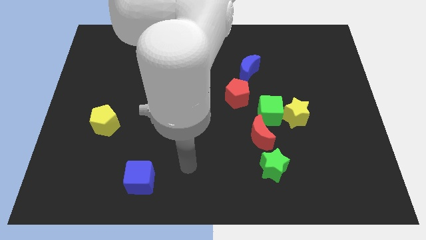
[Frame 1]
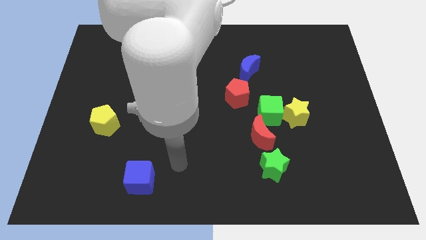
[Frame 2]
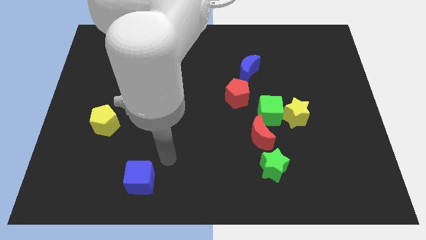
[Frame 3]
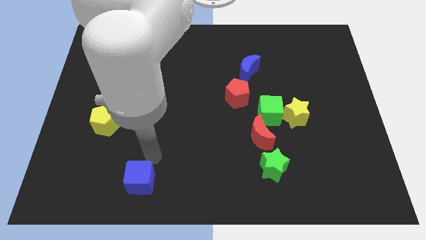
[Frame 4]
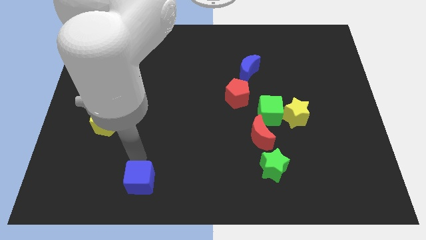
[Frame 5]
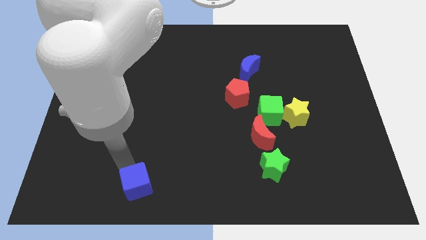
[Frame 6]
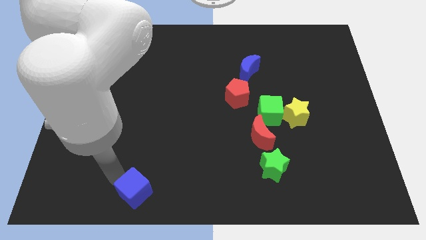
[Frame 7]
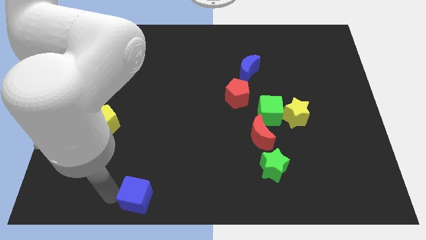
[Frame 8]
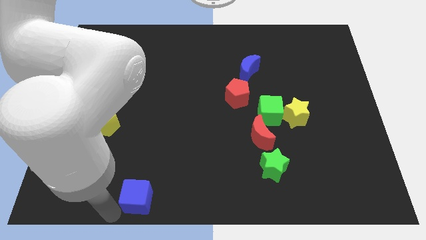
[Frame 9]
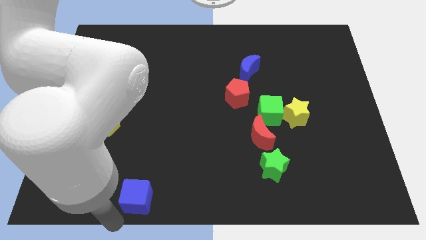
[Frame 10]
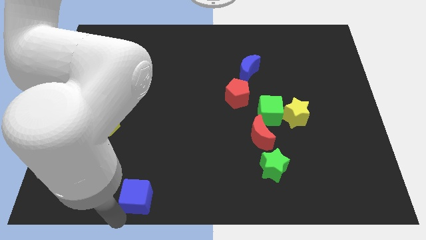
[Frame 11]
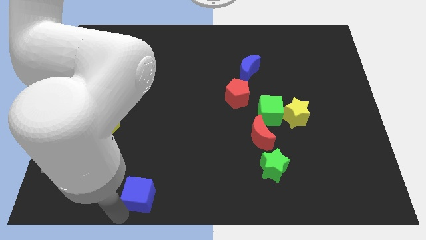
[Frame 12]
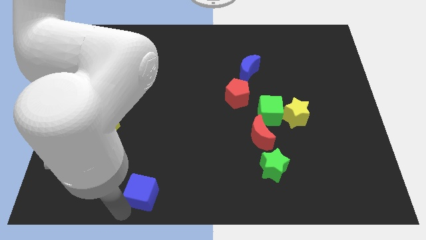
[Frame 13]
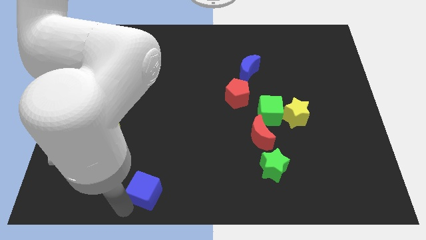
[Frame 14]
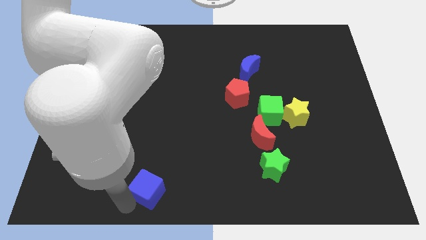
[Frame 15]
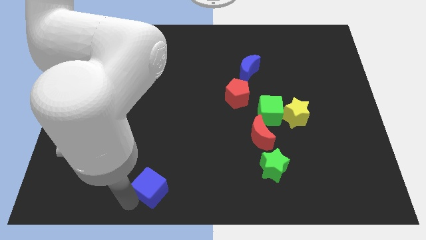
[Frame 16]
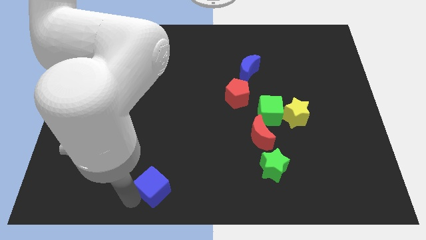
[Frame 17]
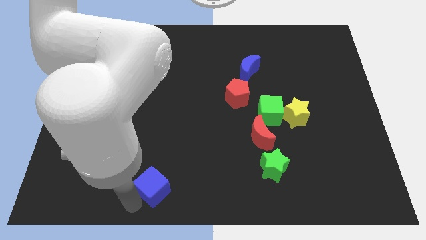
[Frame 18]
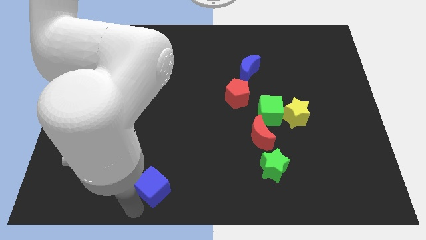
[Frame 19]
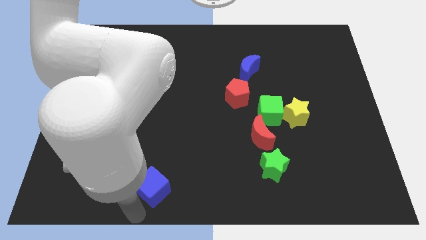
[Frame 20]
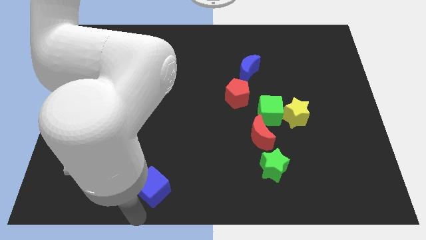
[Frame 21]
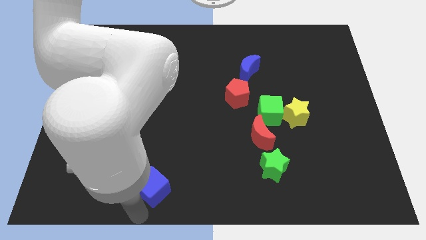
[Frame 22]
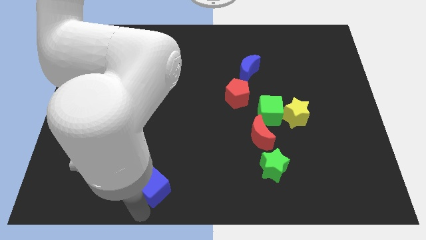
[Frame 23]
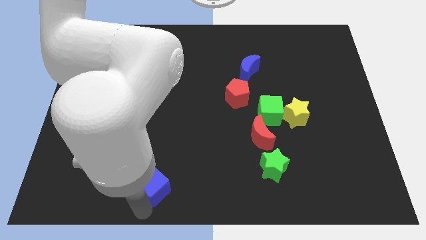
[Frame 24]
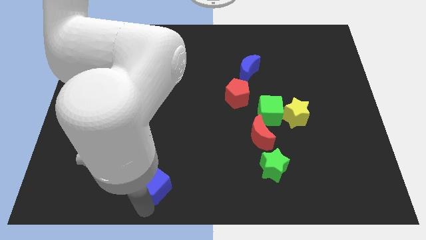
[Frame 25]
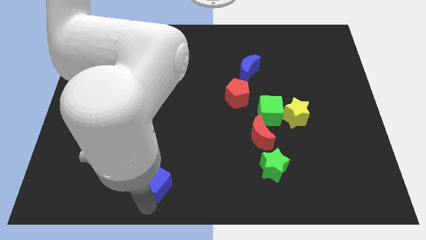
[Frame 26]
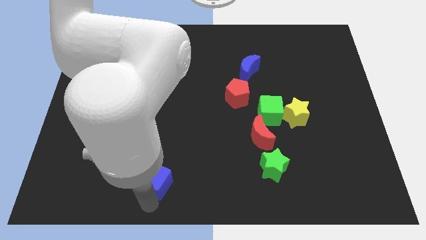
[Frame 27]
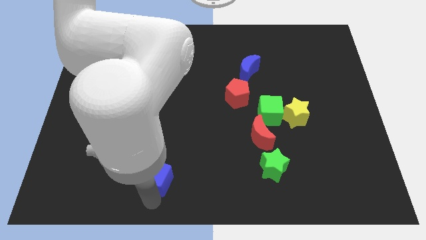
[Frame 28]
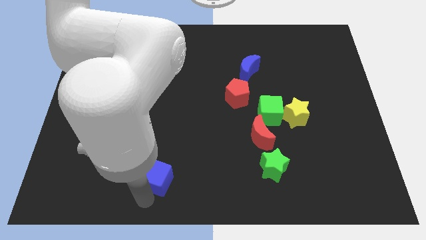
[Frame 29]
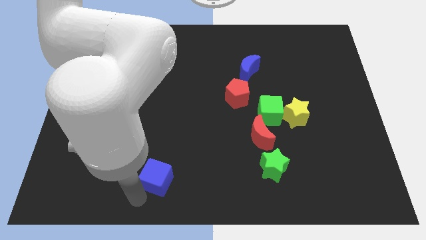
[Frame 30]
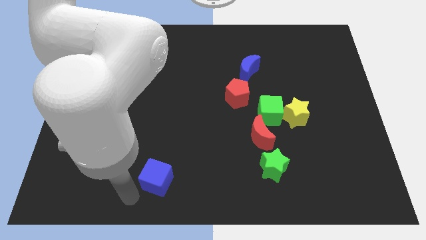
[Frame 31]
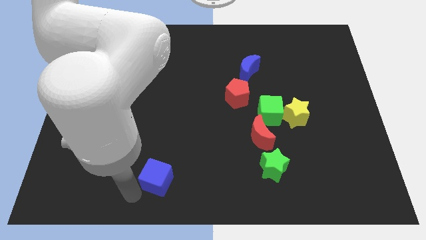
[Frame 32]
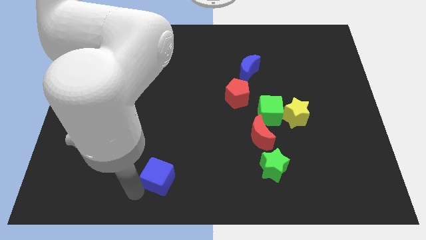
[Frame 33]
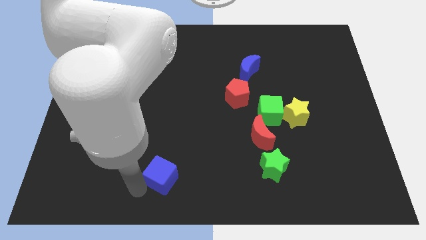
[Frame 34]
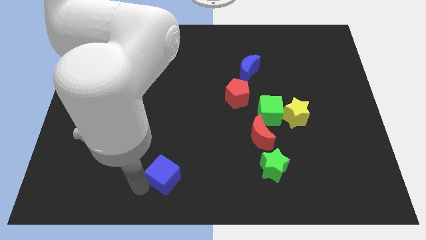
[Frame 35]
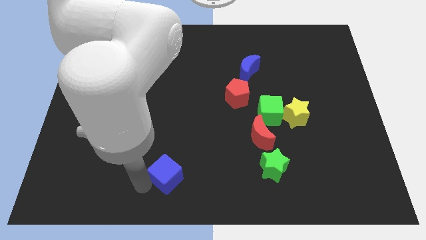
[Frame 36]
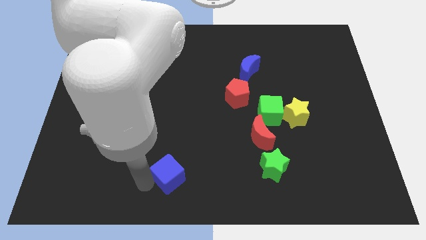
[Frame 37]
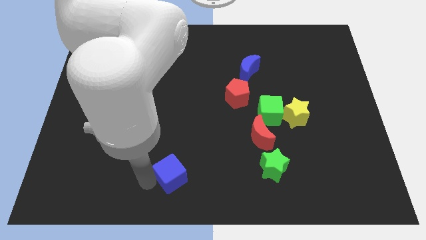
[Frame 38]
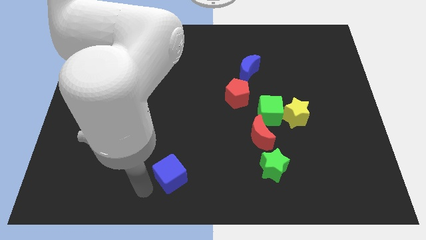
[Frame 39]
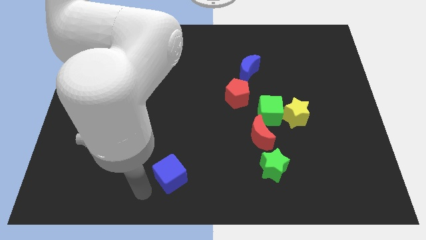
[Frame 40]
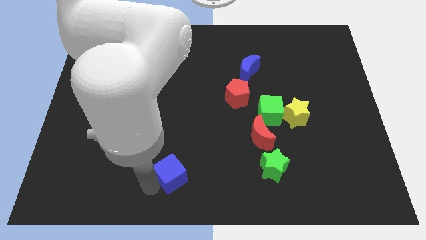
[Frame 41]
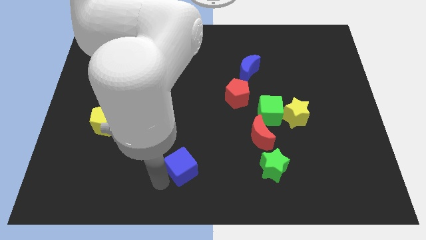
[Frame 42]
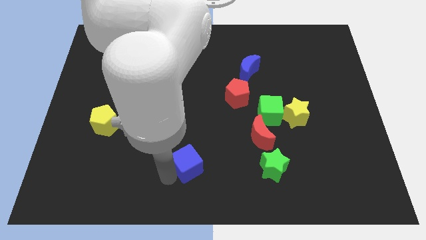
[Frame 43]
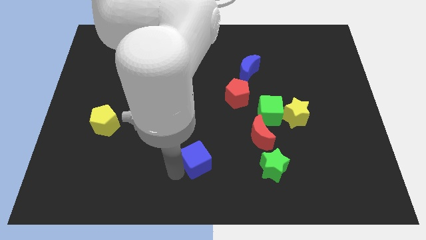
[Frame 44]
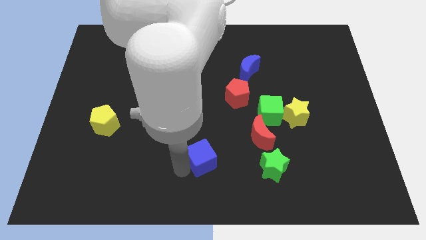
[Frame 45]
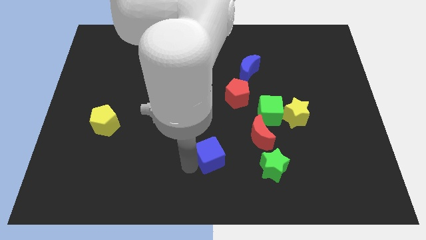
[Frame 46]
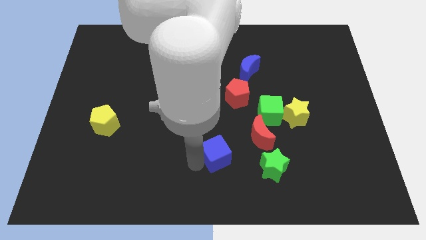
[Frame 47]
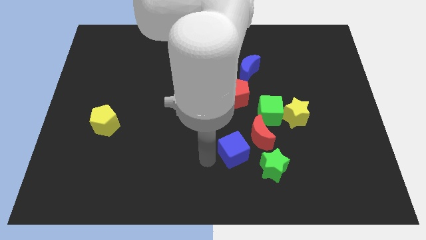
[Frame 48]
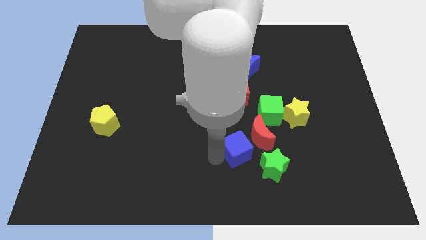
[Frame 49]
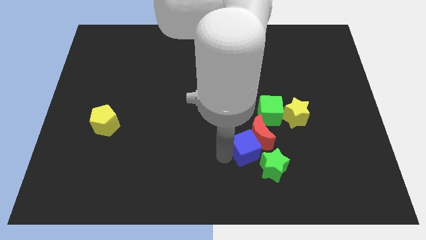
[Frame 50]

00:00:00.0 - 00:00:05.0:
put the blue cube to the red moon

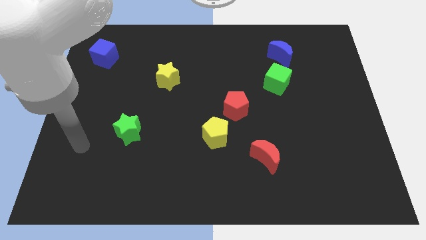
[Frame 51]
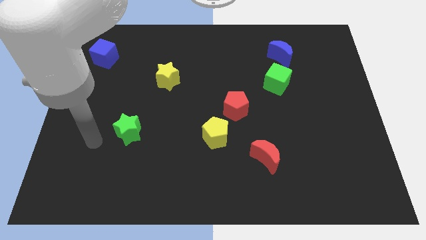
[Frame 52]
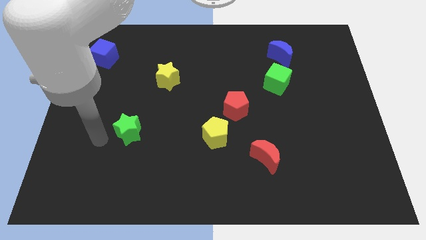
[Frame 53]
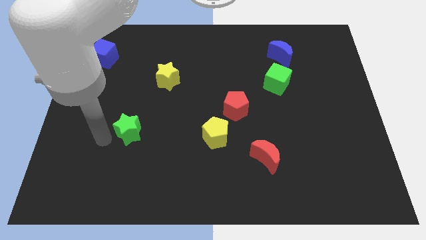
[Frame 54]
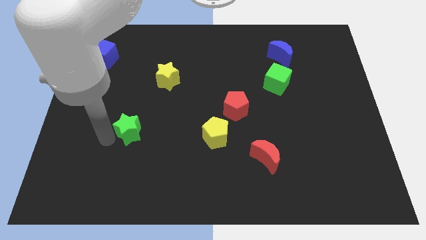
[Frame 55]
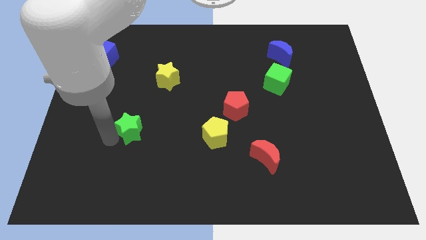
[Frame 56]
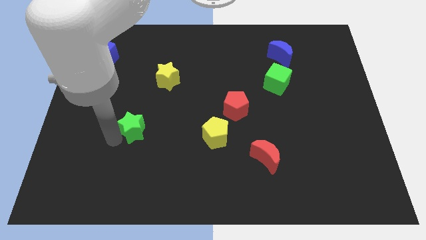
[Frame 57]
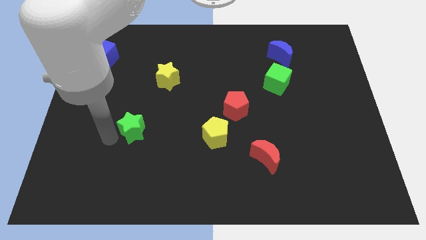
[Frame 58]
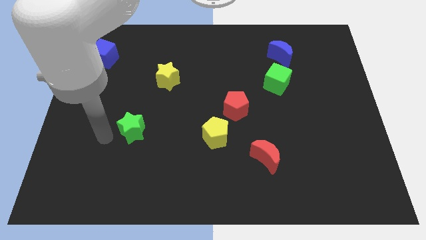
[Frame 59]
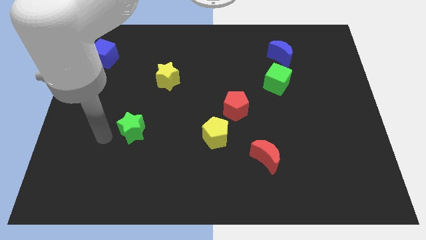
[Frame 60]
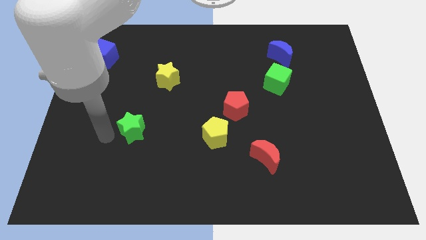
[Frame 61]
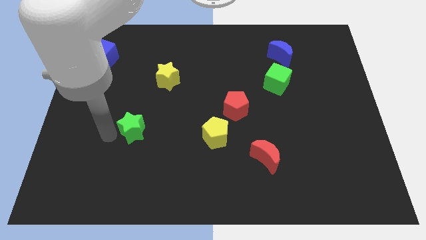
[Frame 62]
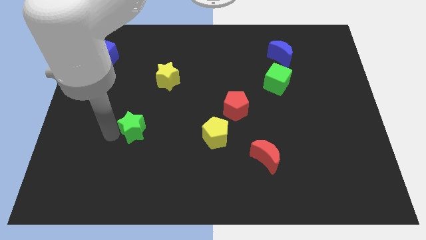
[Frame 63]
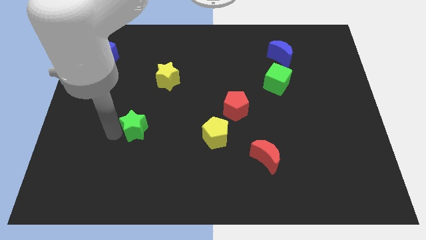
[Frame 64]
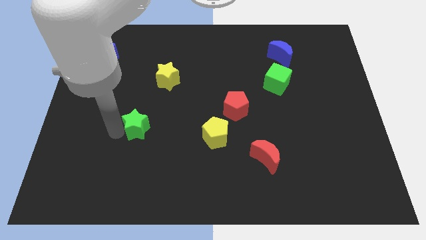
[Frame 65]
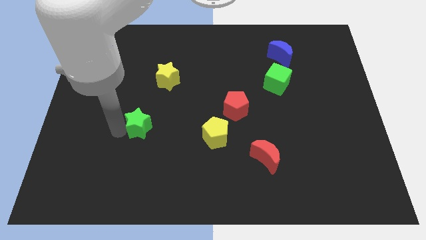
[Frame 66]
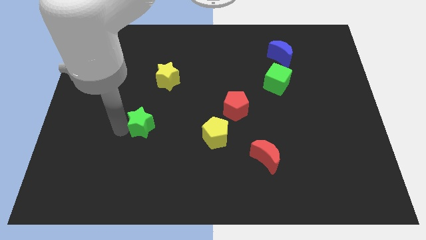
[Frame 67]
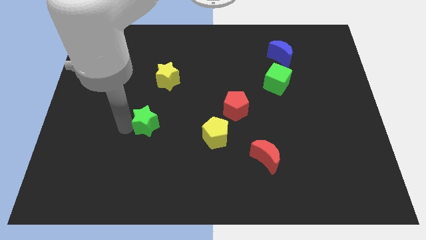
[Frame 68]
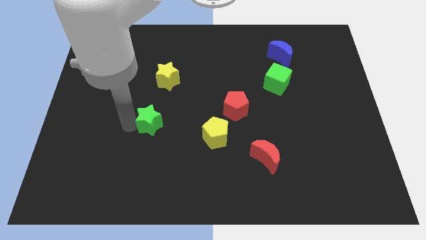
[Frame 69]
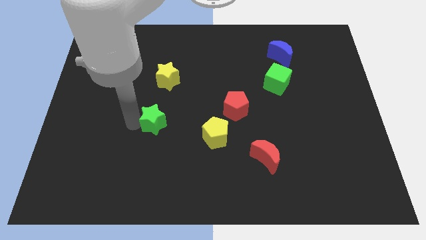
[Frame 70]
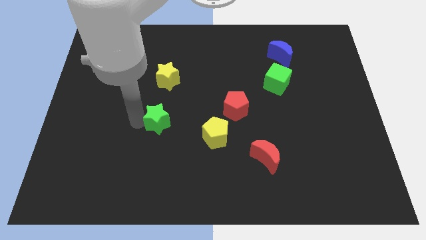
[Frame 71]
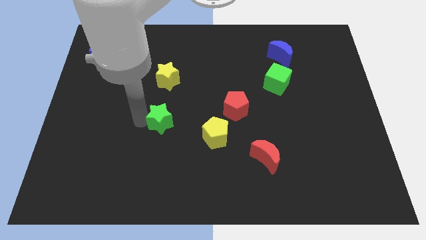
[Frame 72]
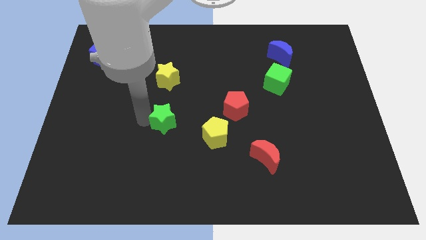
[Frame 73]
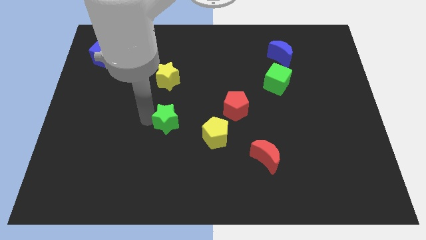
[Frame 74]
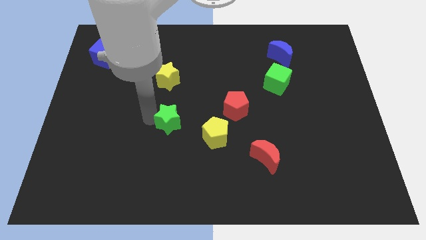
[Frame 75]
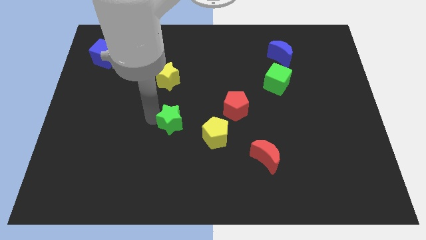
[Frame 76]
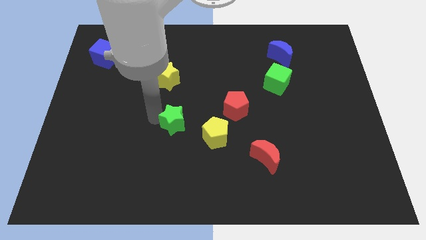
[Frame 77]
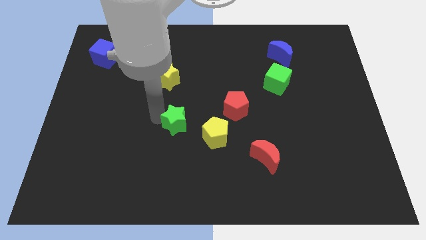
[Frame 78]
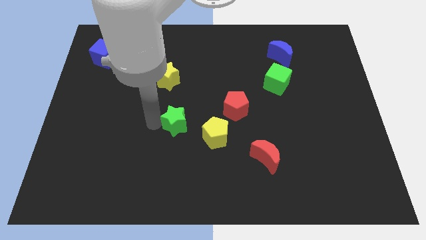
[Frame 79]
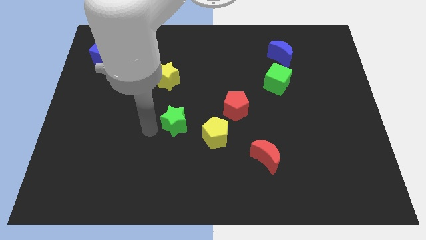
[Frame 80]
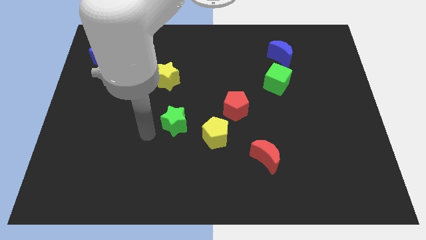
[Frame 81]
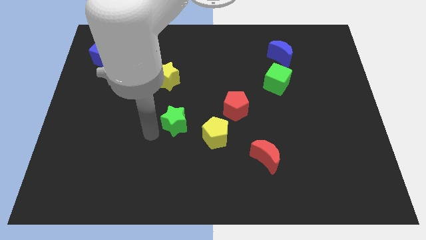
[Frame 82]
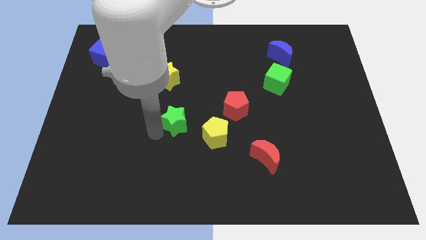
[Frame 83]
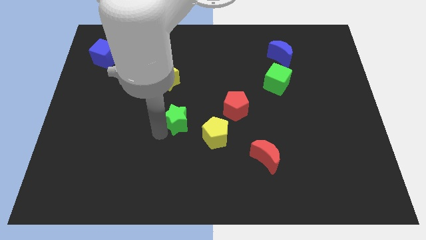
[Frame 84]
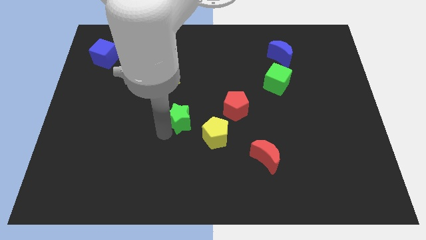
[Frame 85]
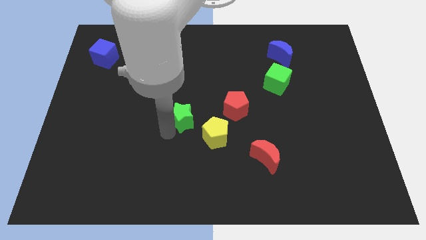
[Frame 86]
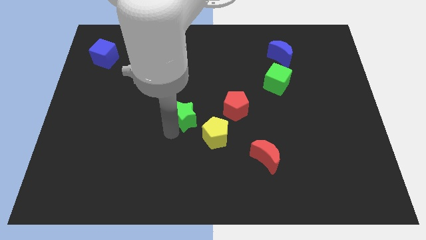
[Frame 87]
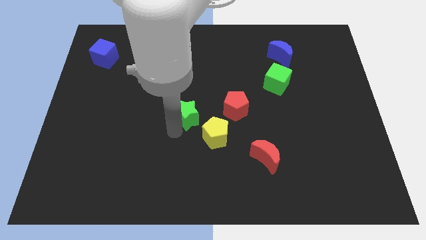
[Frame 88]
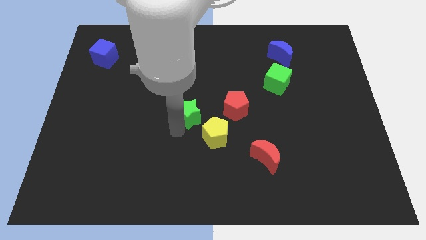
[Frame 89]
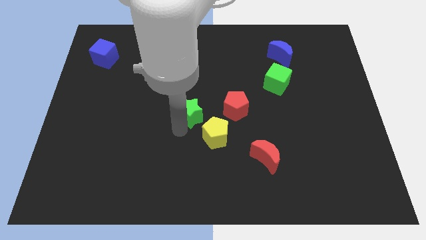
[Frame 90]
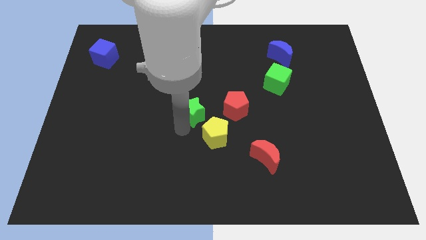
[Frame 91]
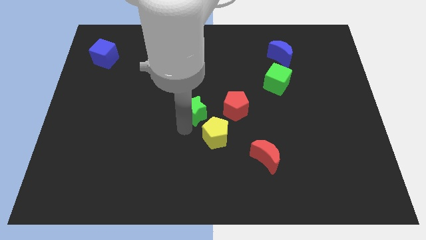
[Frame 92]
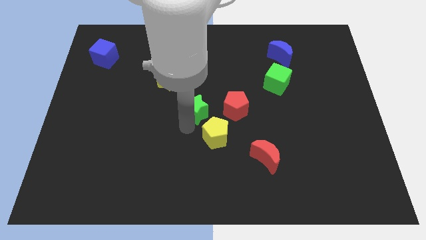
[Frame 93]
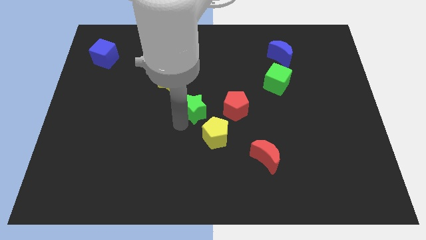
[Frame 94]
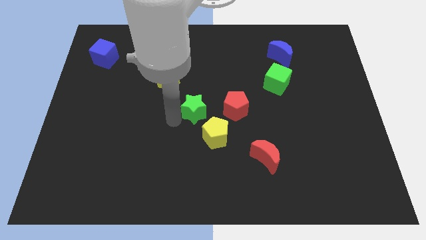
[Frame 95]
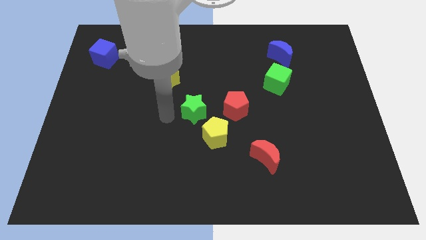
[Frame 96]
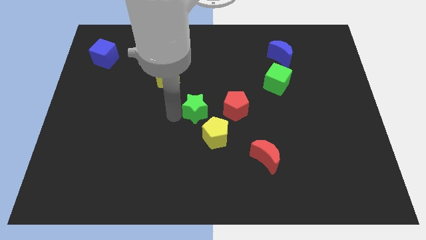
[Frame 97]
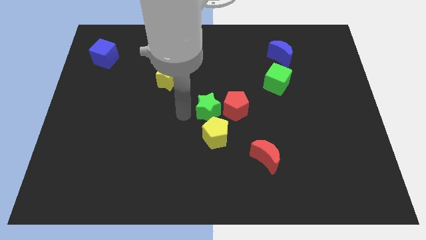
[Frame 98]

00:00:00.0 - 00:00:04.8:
move the green star close to the red pentagon
